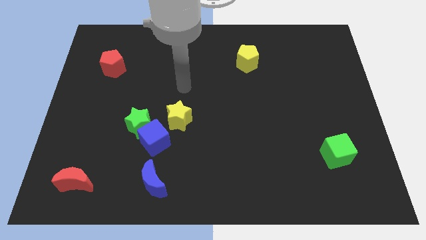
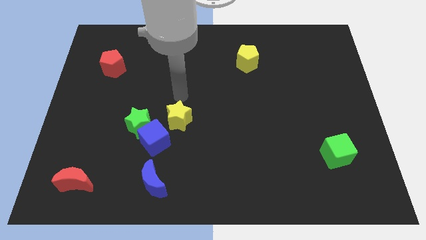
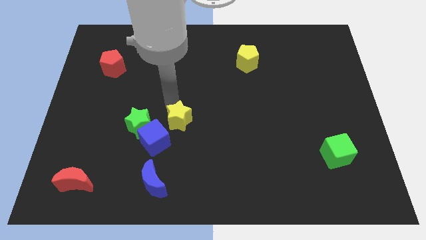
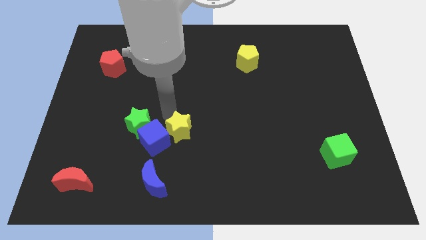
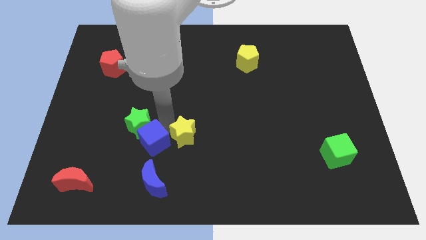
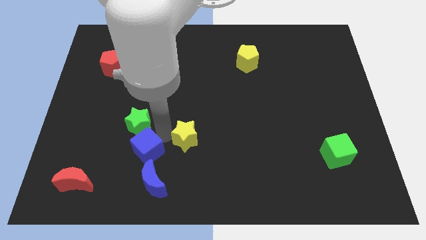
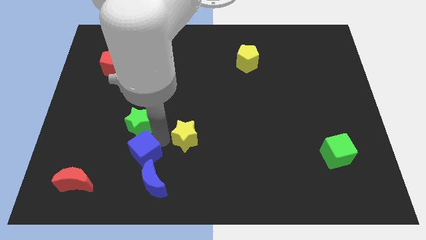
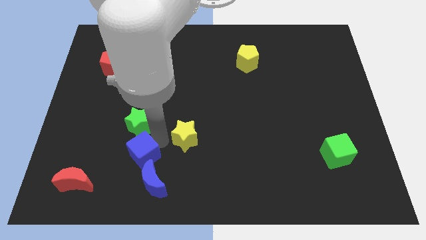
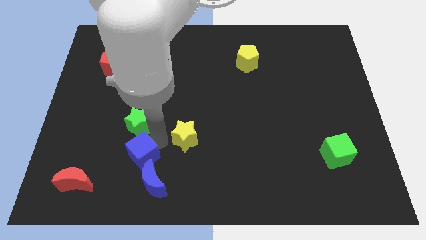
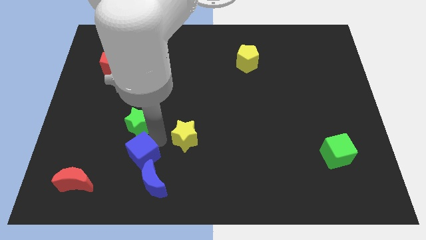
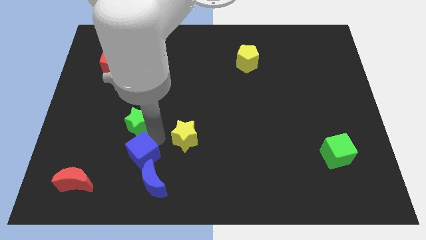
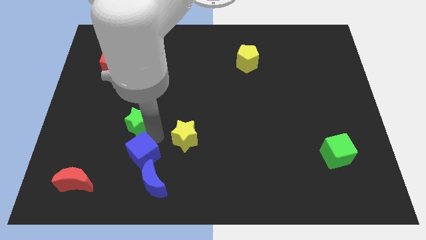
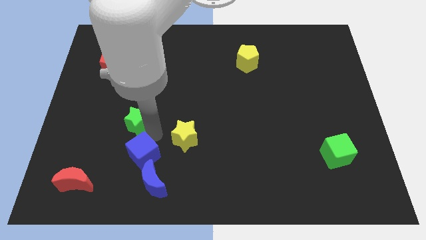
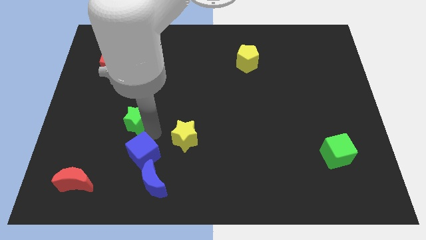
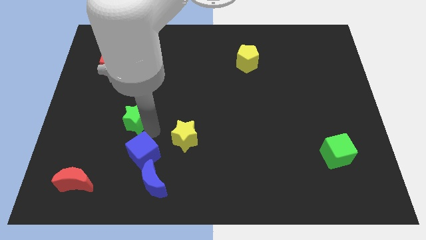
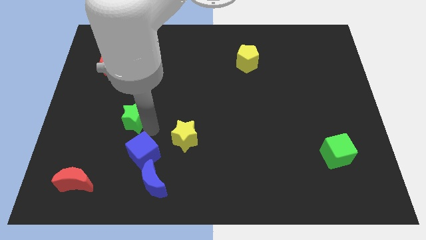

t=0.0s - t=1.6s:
move the green star away from the blue cube and yellow star

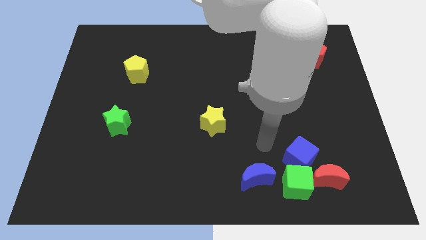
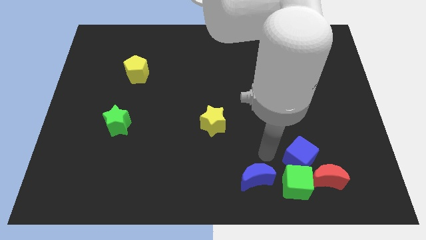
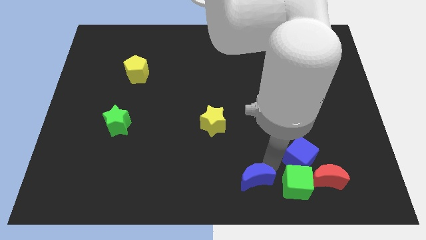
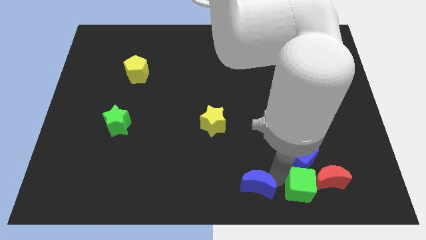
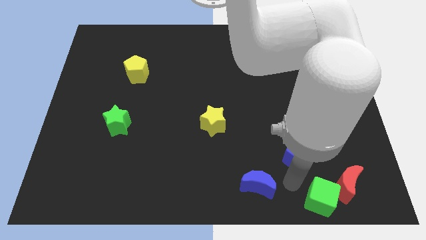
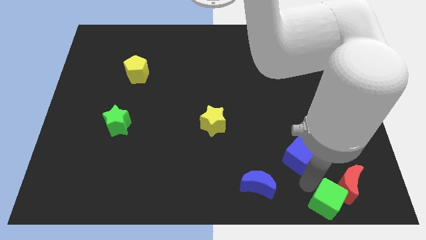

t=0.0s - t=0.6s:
separate the blue cube from the green cube and red moon

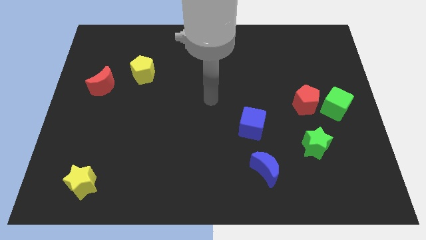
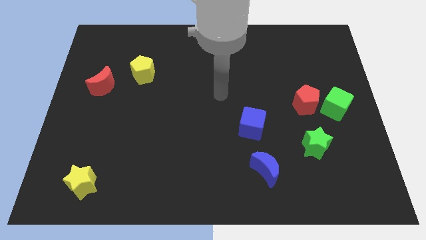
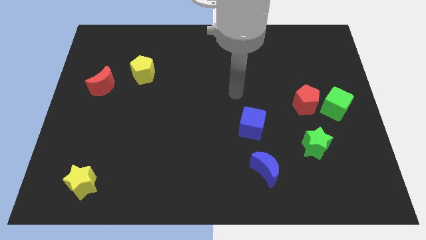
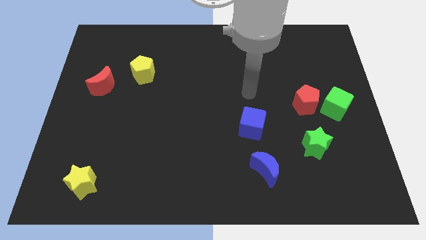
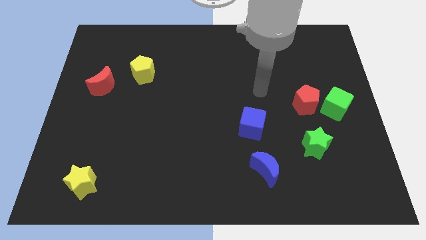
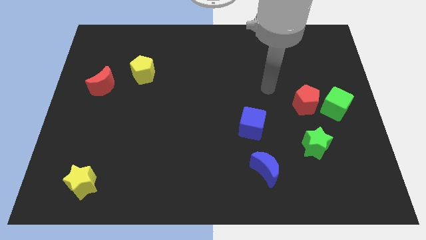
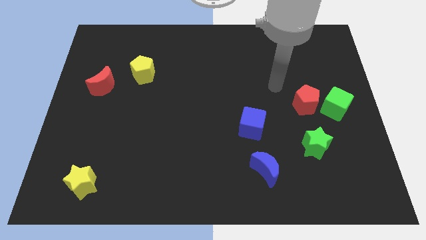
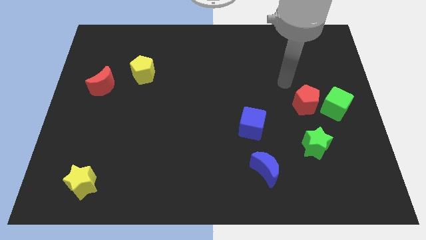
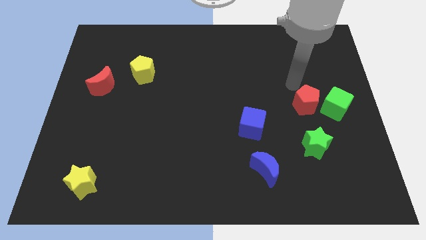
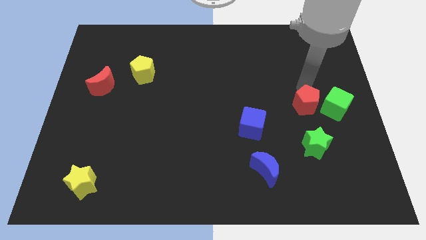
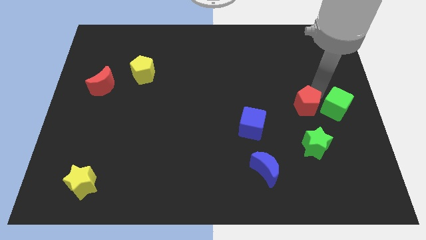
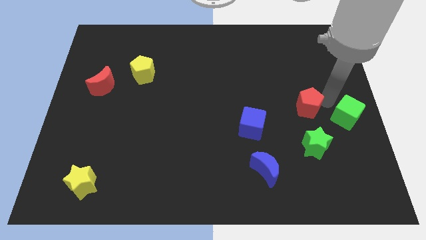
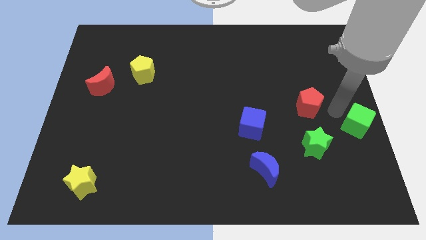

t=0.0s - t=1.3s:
move the red pentagon away from the green cube

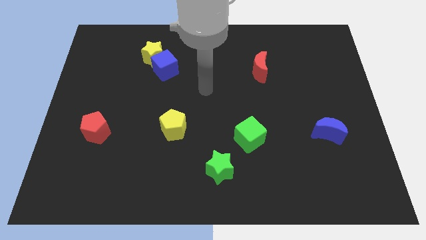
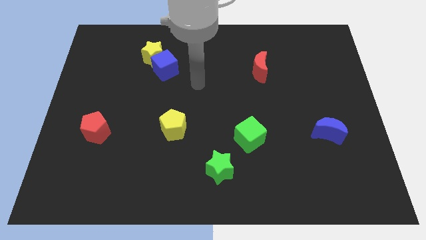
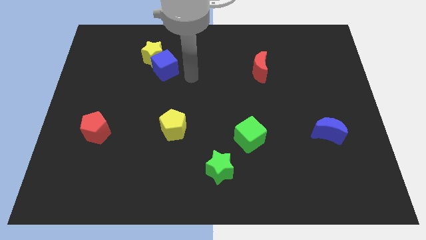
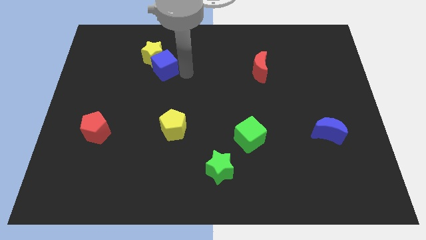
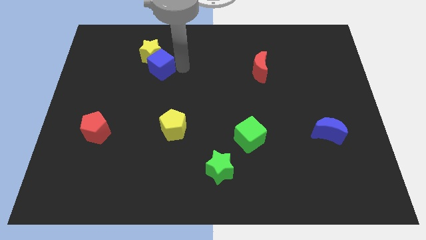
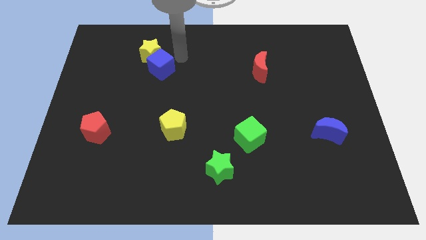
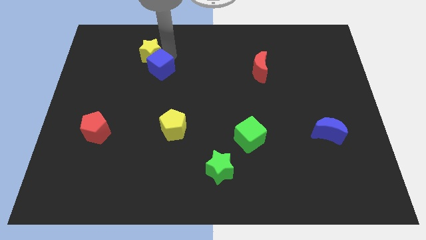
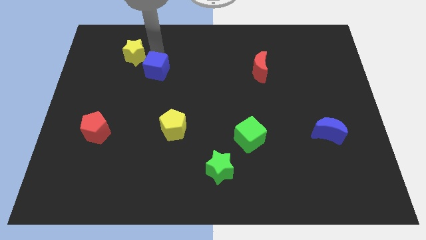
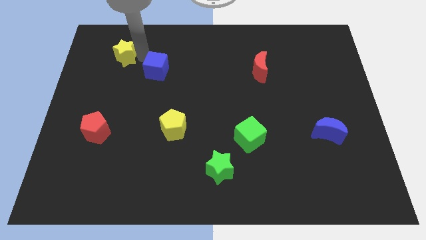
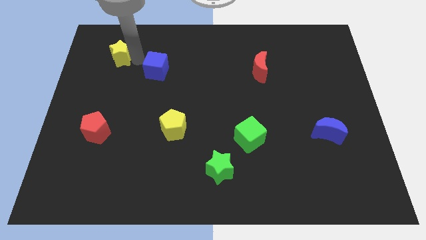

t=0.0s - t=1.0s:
pull the blue cube apart from the yellow star

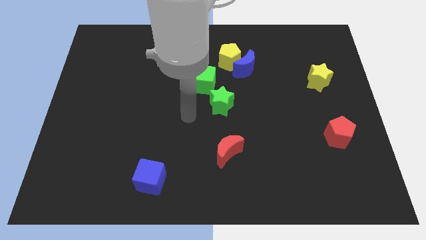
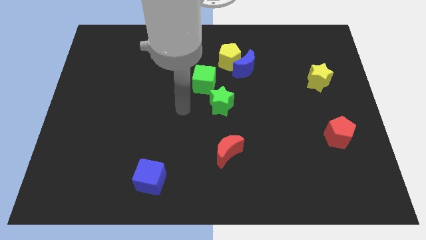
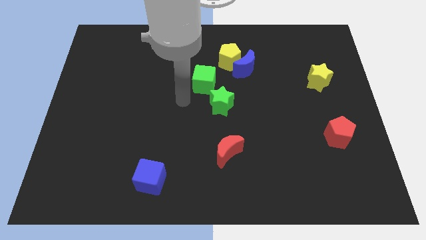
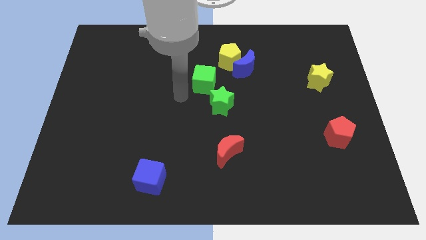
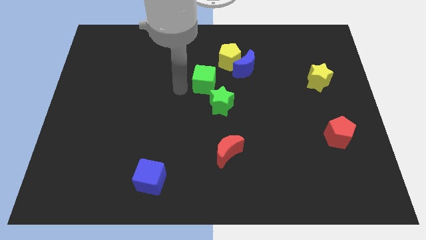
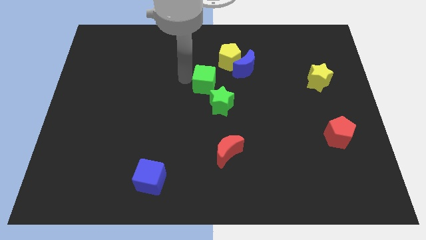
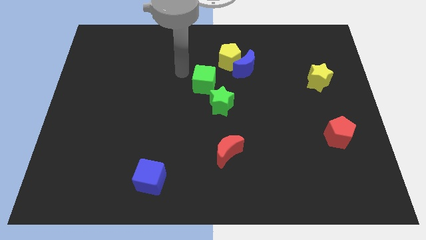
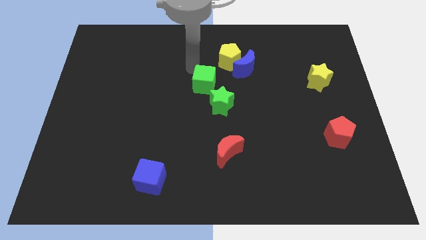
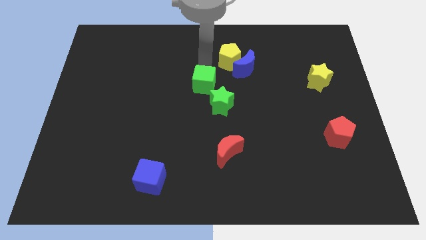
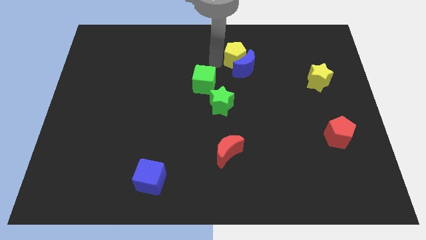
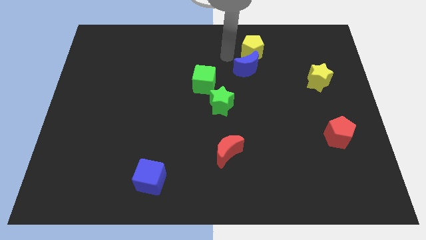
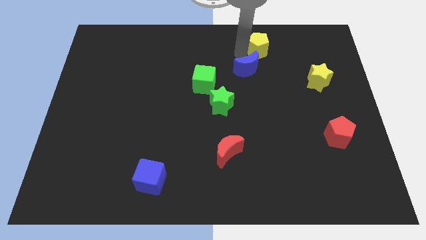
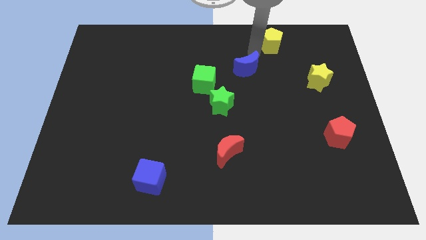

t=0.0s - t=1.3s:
pull the blue moon apart from the yellow pentagon

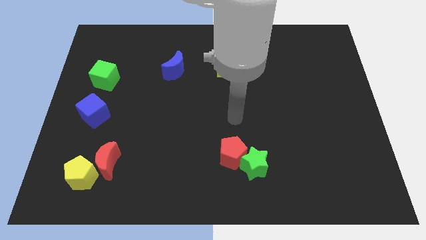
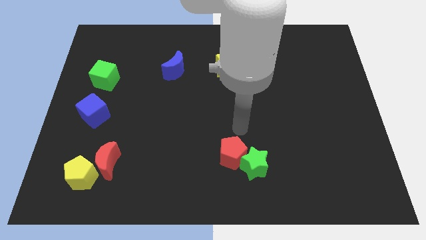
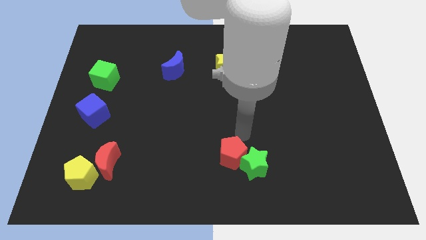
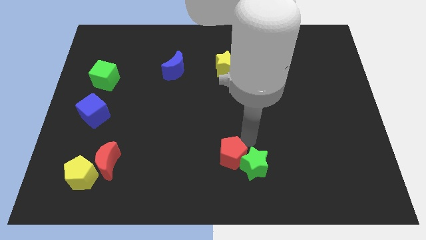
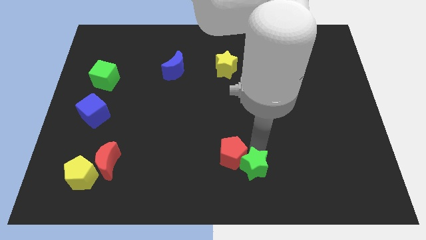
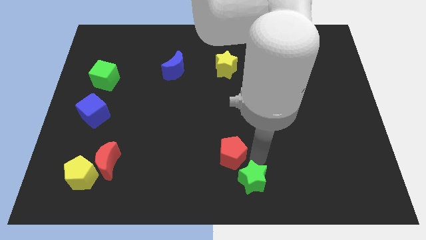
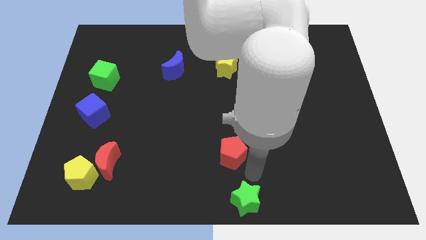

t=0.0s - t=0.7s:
separate the red pentagon from the green star

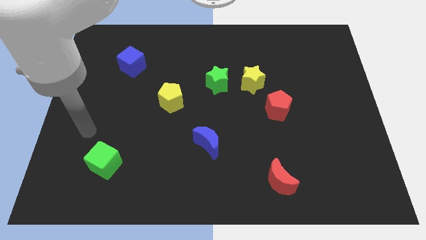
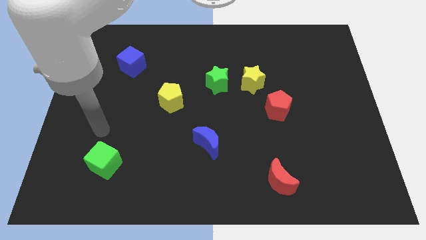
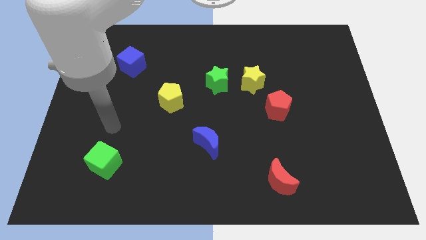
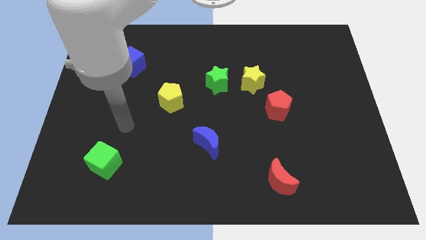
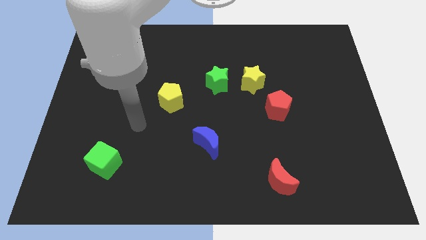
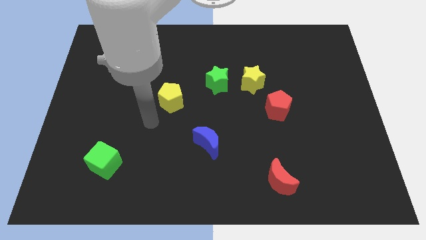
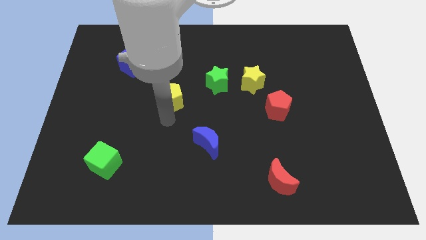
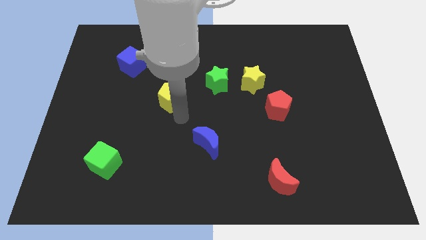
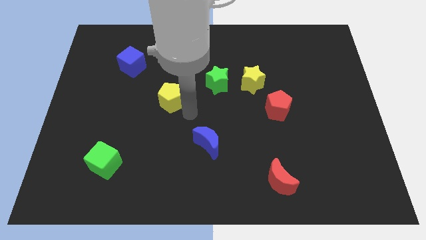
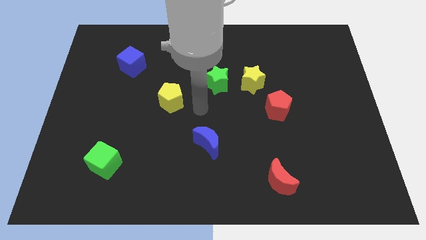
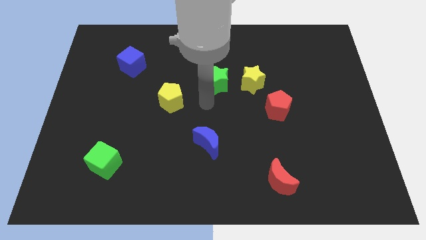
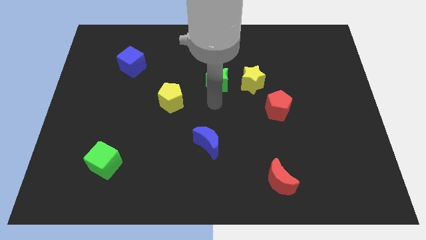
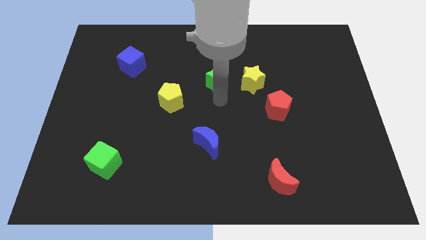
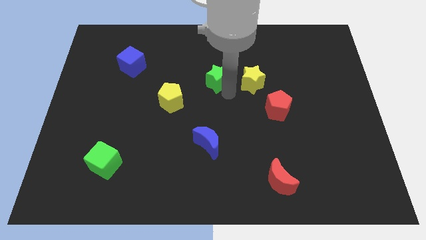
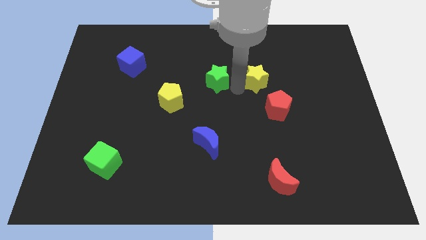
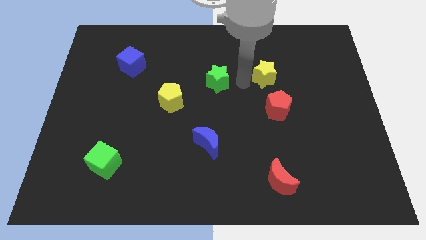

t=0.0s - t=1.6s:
pull the green star apart from the yellow star

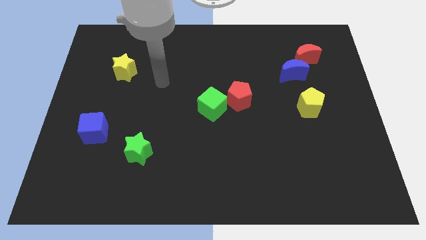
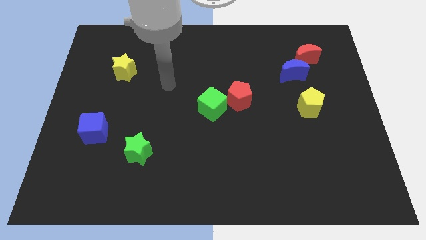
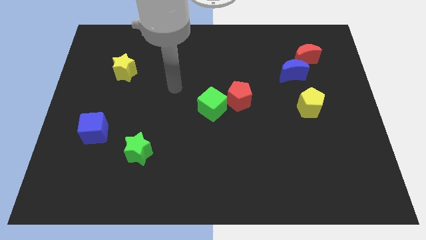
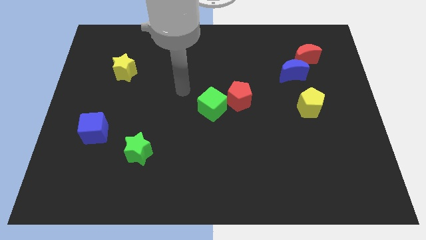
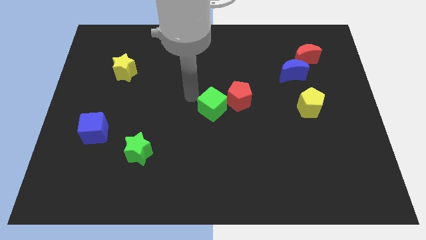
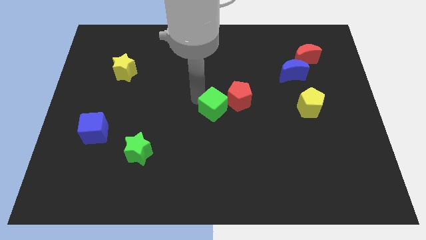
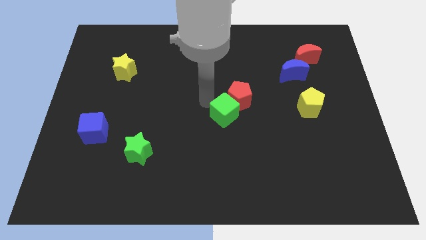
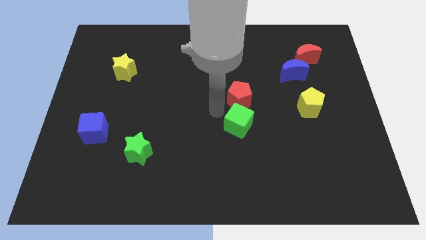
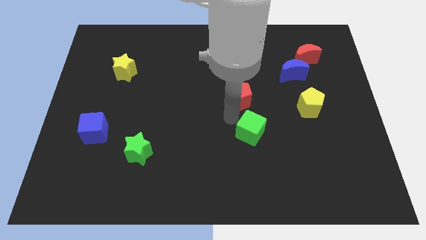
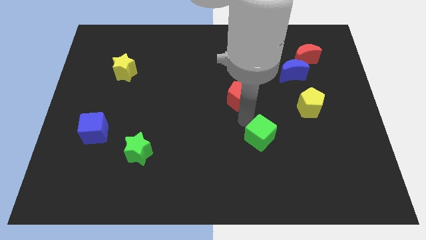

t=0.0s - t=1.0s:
separate the red pentagon from the green cube

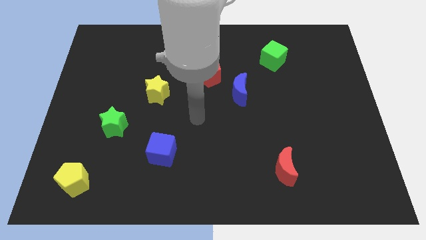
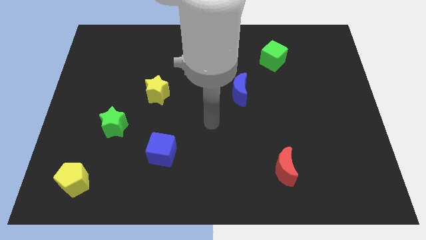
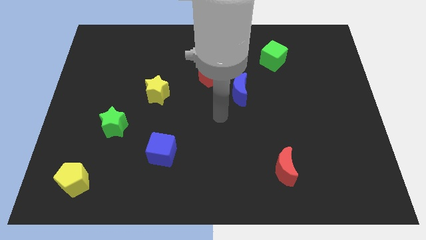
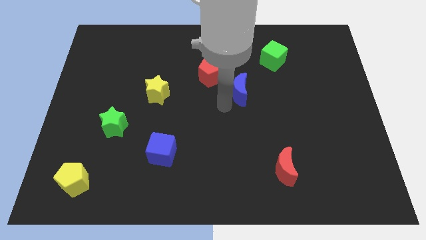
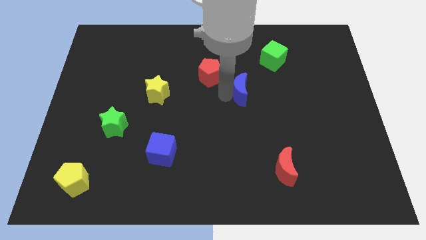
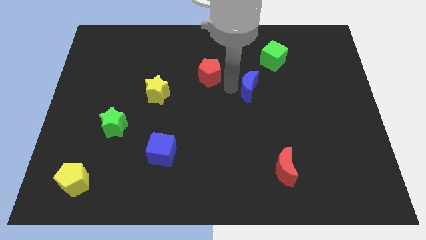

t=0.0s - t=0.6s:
pull the red pentagon apart from the blue moon
